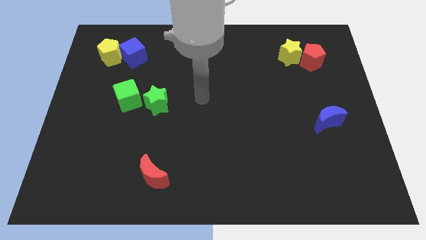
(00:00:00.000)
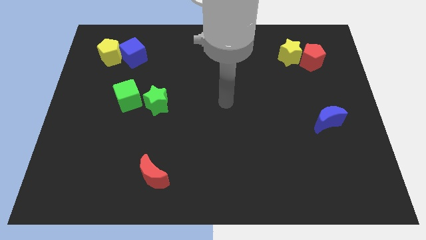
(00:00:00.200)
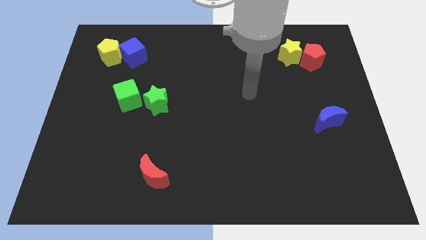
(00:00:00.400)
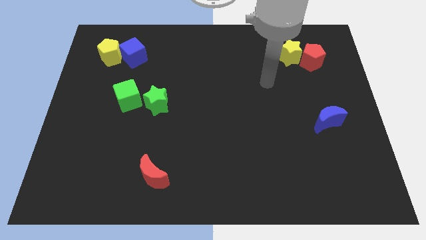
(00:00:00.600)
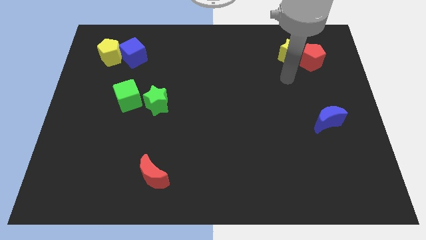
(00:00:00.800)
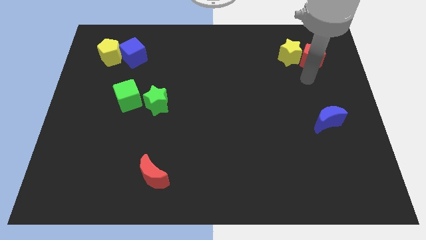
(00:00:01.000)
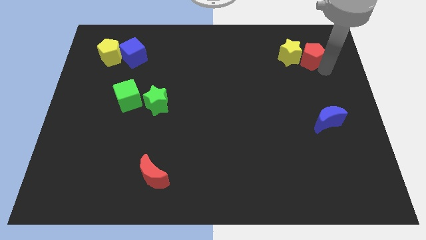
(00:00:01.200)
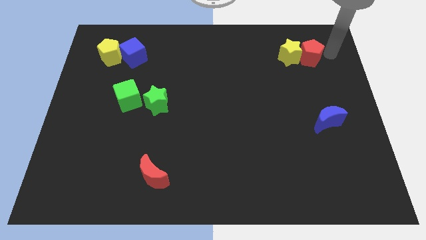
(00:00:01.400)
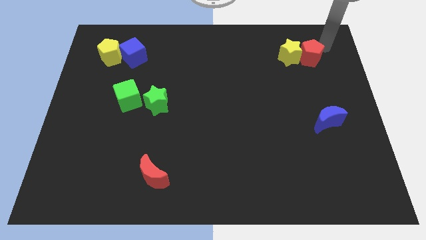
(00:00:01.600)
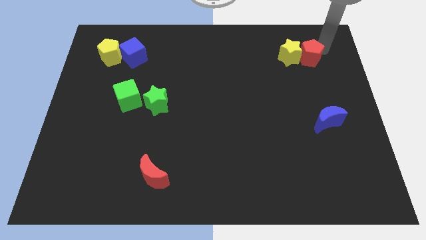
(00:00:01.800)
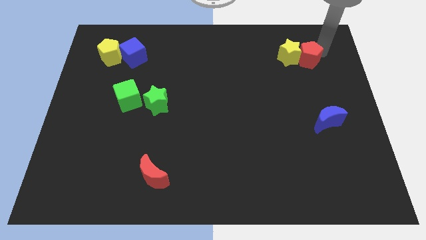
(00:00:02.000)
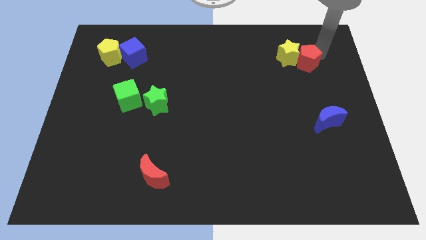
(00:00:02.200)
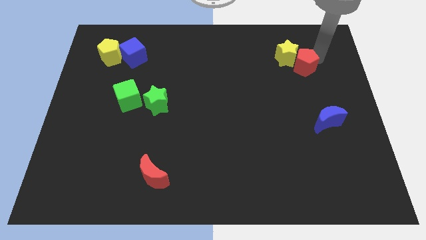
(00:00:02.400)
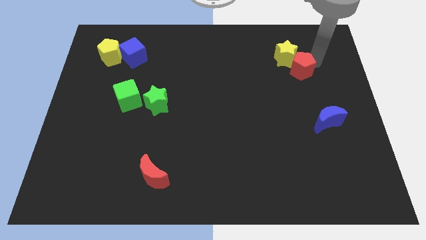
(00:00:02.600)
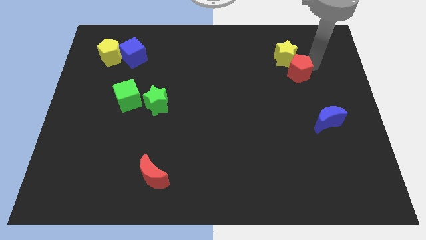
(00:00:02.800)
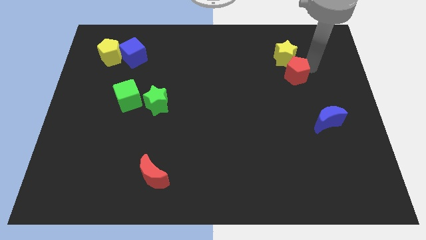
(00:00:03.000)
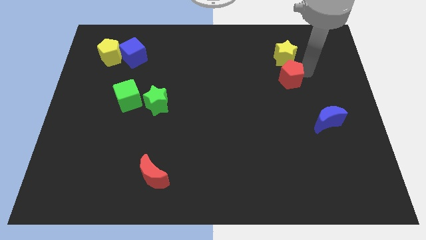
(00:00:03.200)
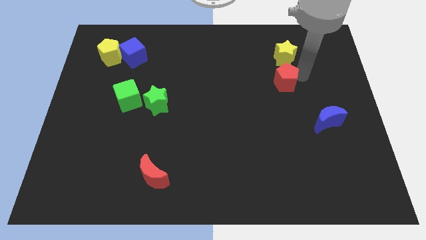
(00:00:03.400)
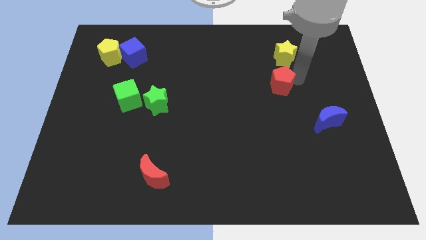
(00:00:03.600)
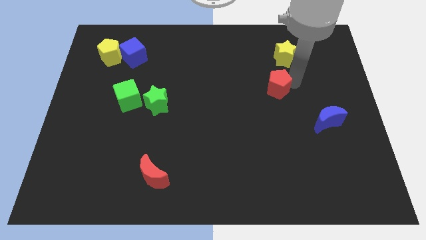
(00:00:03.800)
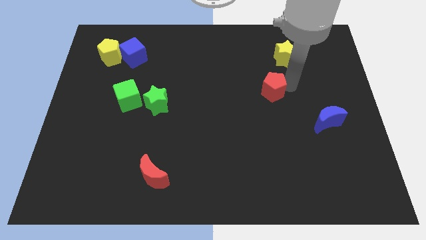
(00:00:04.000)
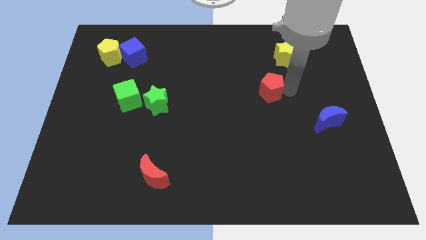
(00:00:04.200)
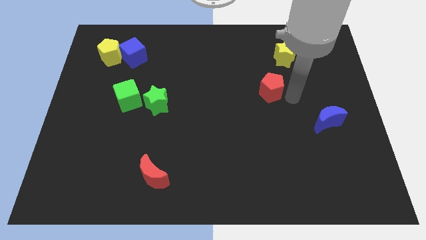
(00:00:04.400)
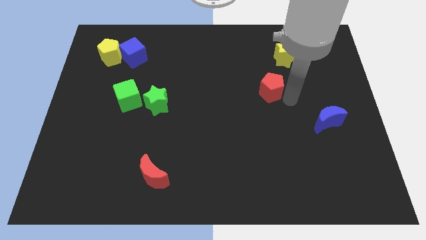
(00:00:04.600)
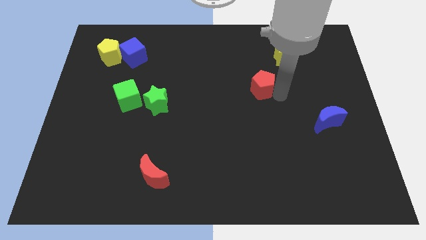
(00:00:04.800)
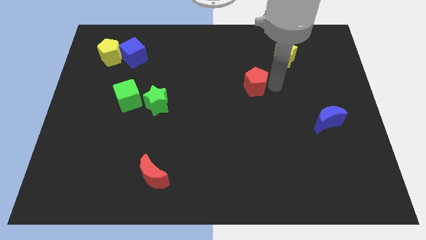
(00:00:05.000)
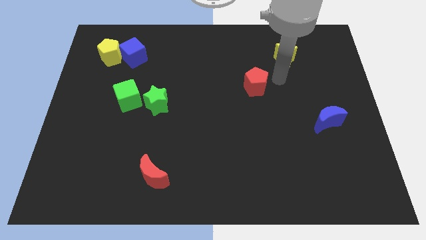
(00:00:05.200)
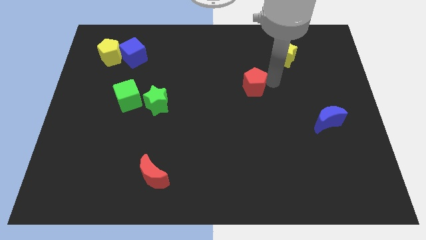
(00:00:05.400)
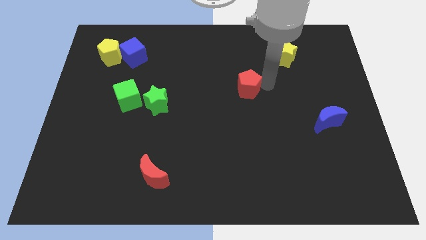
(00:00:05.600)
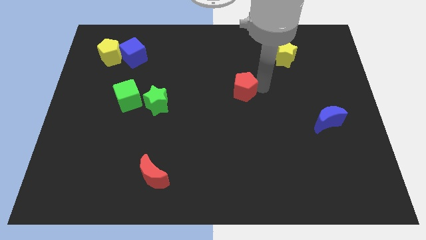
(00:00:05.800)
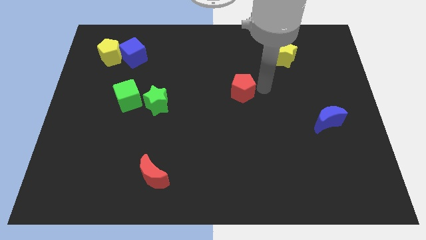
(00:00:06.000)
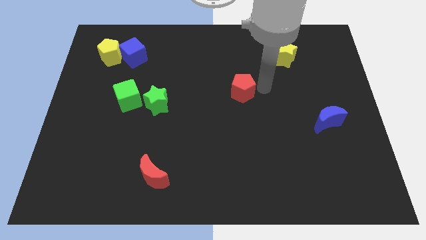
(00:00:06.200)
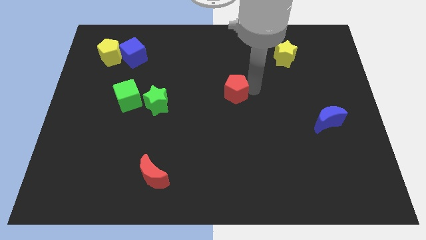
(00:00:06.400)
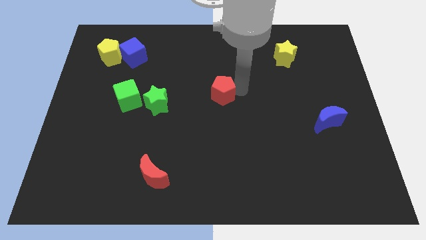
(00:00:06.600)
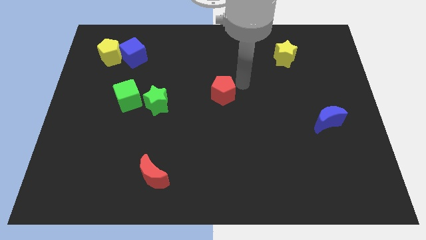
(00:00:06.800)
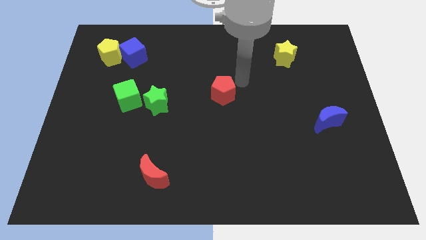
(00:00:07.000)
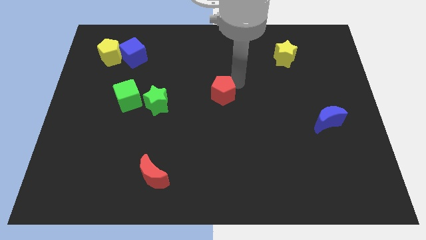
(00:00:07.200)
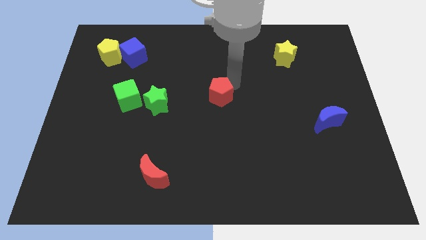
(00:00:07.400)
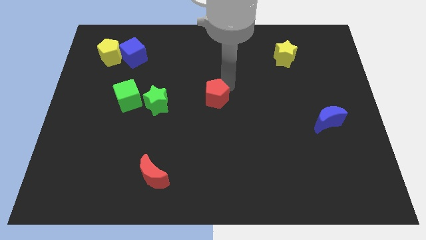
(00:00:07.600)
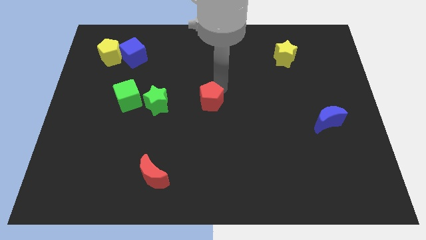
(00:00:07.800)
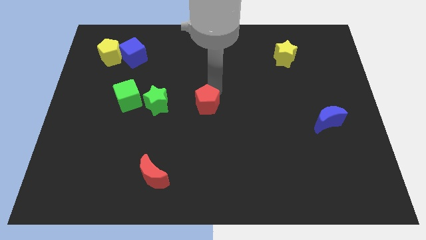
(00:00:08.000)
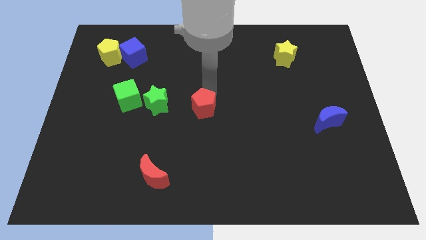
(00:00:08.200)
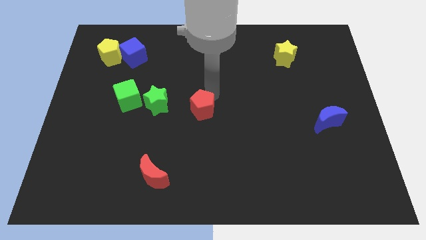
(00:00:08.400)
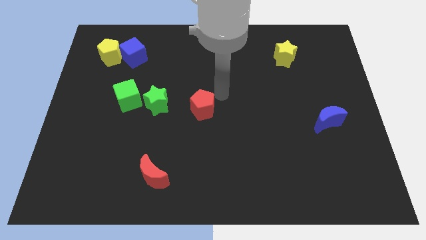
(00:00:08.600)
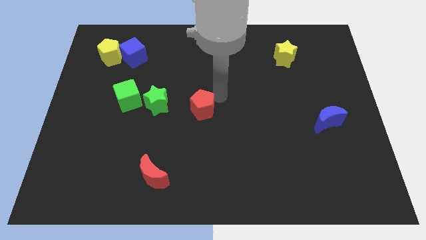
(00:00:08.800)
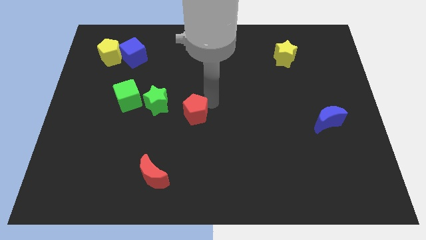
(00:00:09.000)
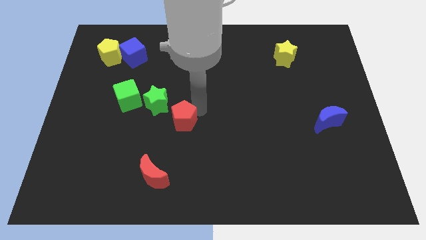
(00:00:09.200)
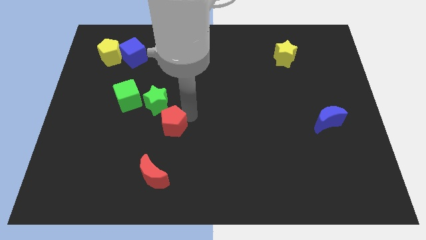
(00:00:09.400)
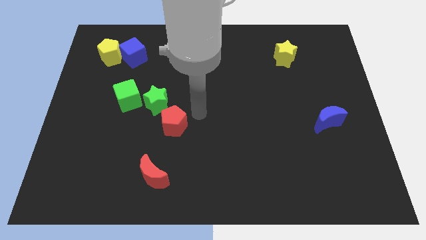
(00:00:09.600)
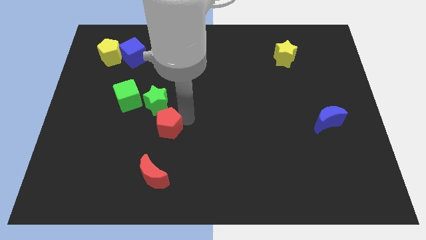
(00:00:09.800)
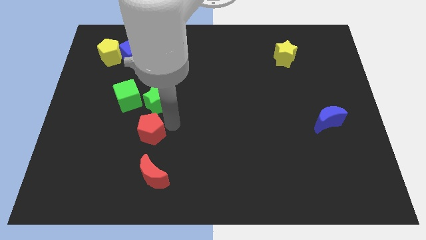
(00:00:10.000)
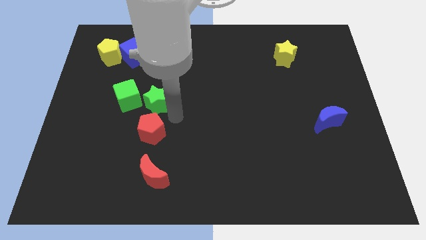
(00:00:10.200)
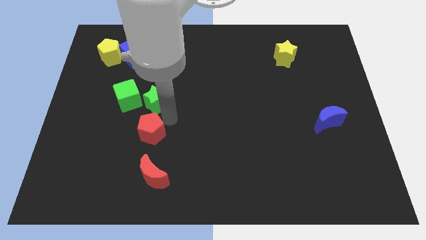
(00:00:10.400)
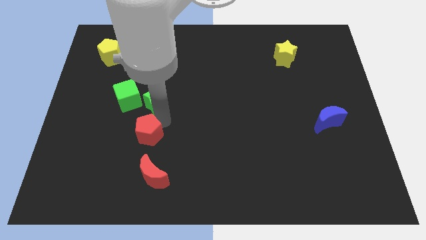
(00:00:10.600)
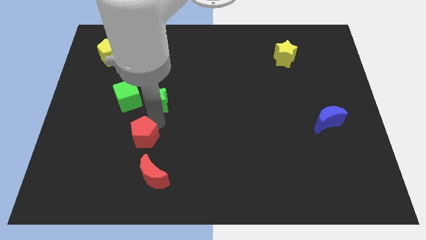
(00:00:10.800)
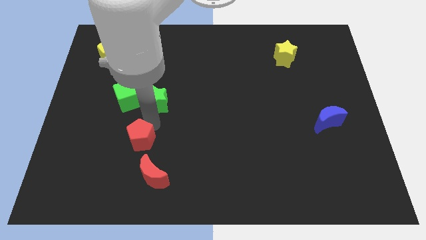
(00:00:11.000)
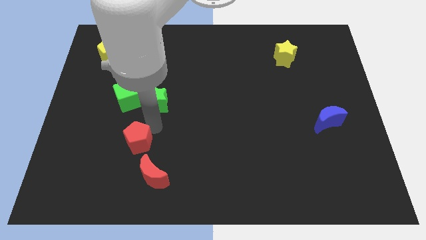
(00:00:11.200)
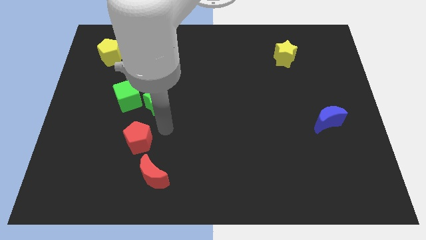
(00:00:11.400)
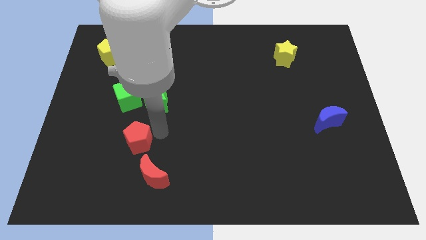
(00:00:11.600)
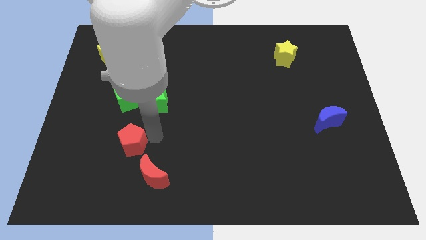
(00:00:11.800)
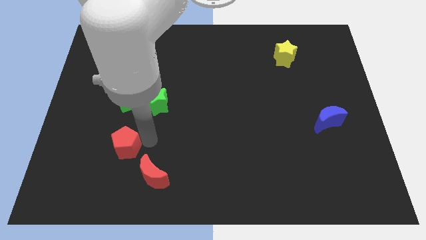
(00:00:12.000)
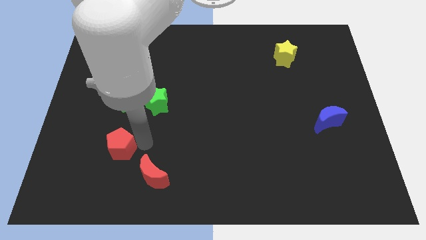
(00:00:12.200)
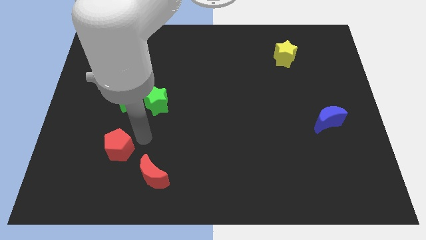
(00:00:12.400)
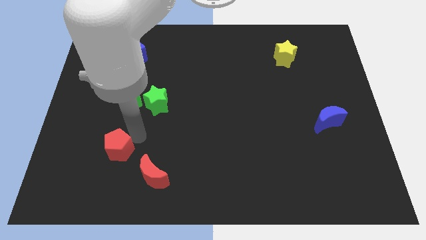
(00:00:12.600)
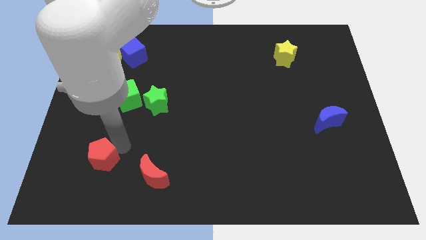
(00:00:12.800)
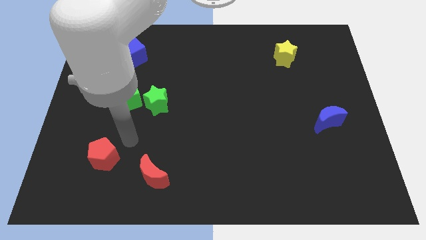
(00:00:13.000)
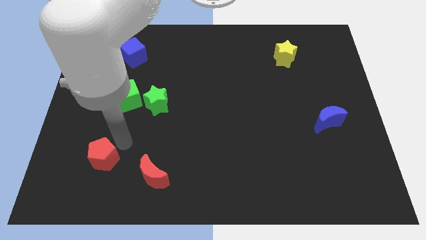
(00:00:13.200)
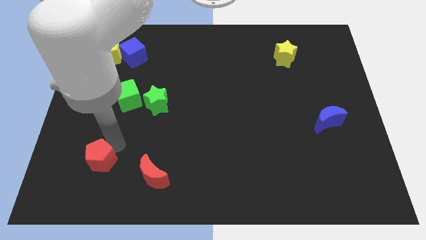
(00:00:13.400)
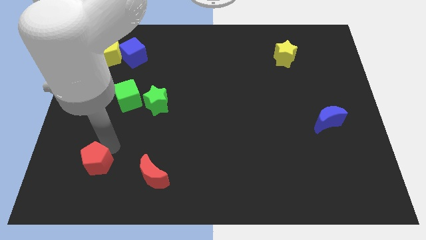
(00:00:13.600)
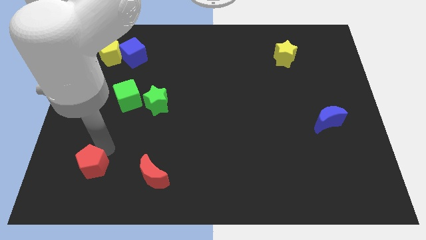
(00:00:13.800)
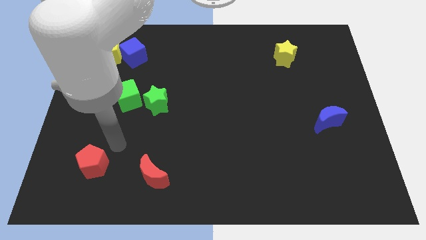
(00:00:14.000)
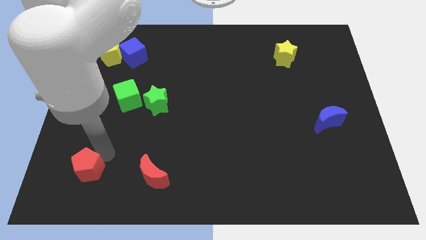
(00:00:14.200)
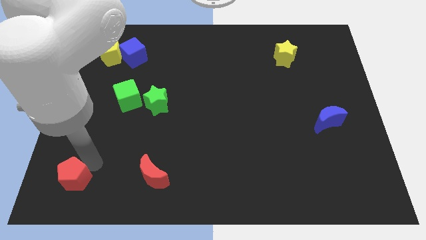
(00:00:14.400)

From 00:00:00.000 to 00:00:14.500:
push the red pentagon to the lower left corner
